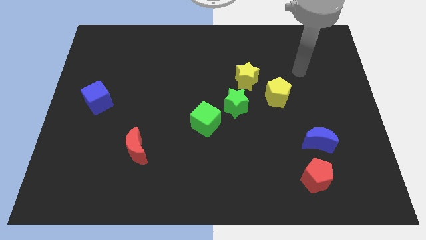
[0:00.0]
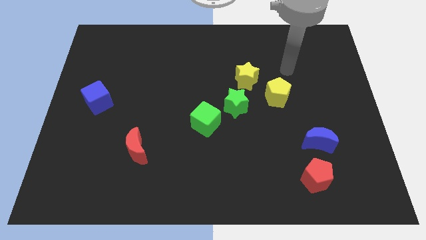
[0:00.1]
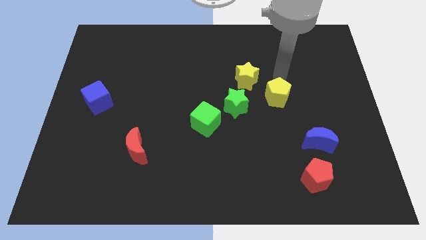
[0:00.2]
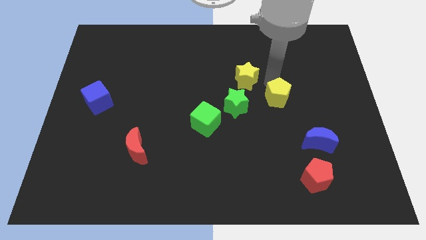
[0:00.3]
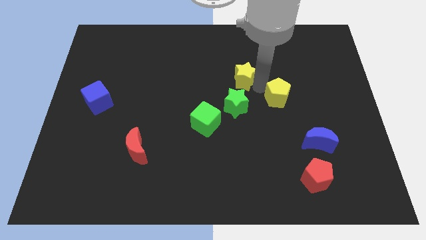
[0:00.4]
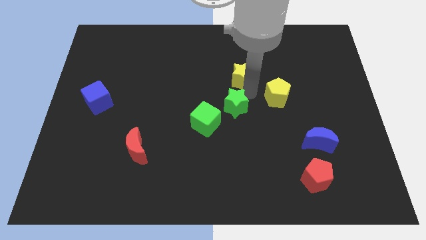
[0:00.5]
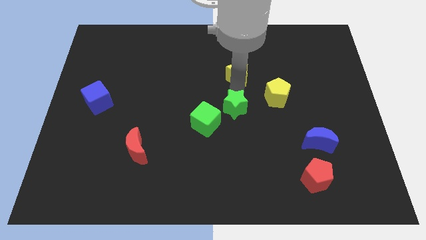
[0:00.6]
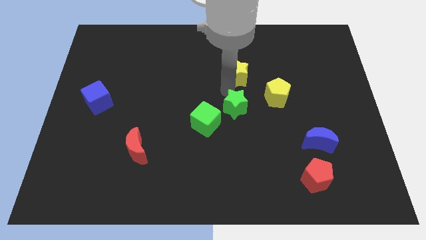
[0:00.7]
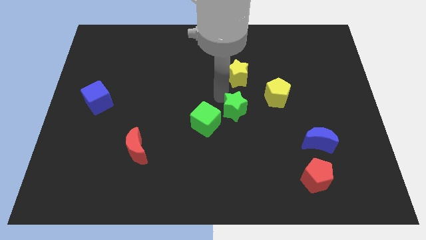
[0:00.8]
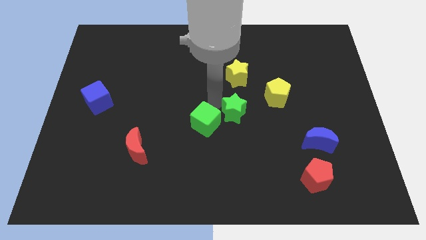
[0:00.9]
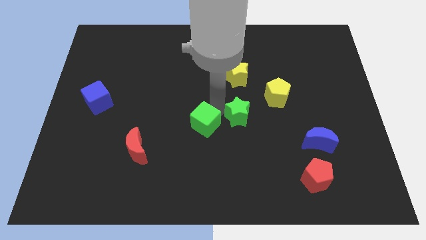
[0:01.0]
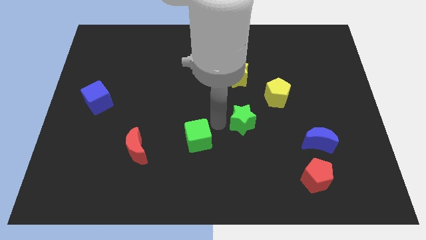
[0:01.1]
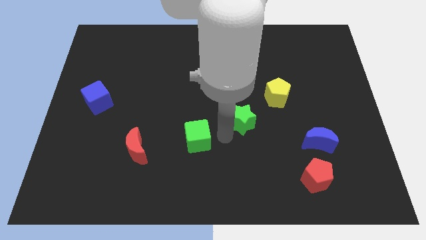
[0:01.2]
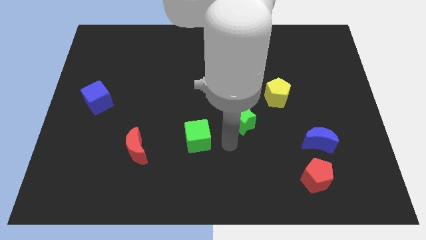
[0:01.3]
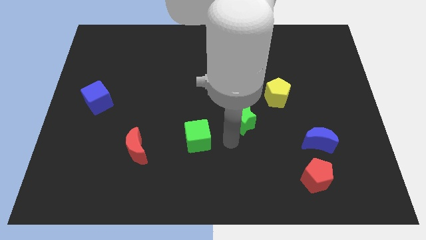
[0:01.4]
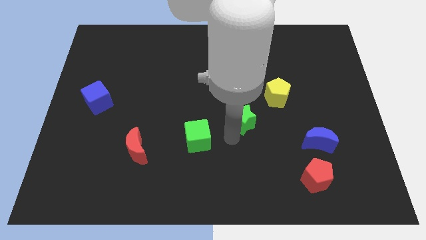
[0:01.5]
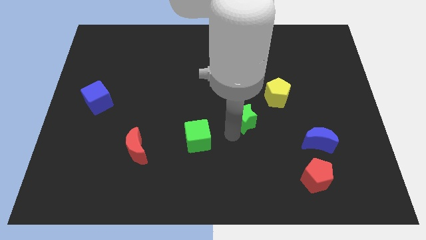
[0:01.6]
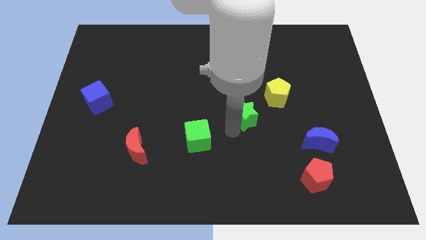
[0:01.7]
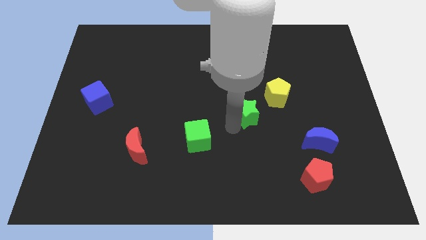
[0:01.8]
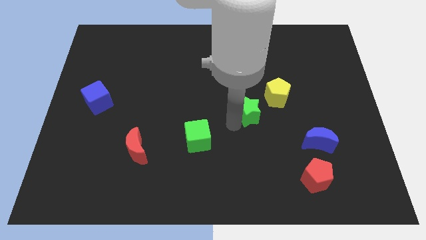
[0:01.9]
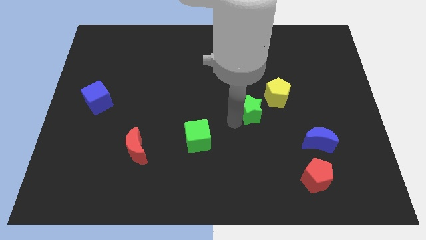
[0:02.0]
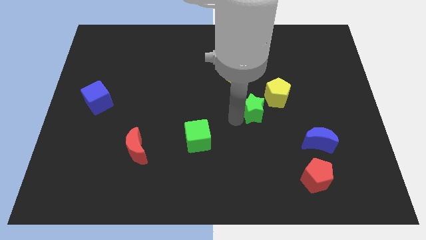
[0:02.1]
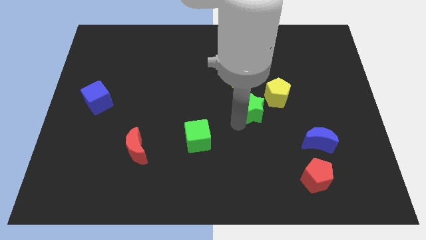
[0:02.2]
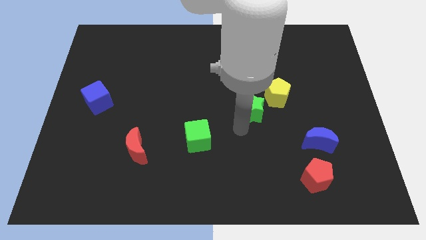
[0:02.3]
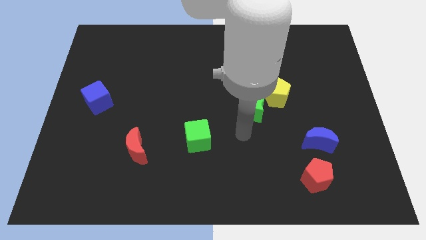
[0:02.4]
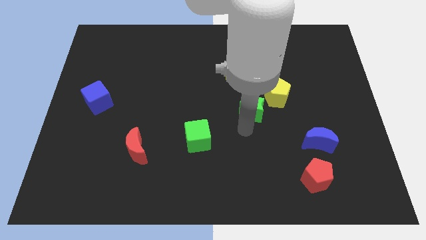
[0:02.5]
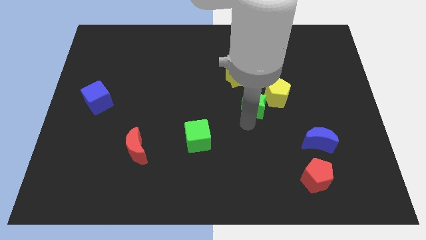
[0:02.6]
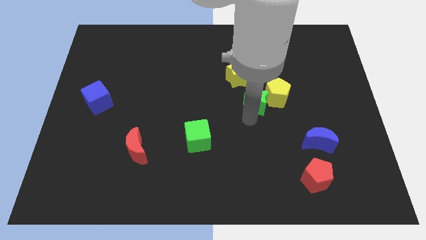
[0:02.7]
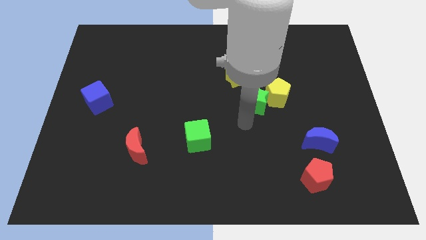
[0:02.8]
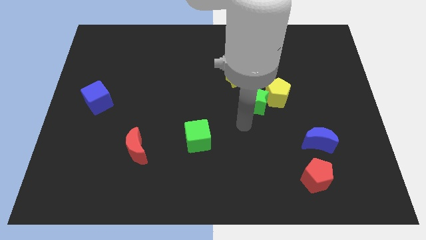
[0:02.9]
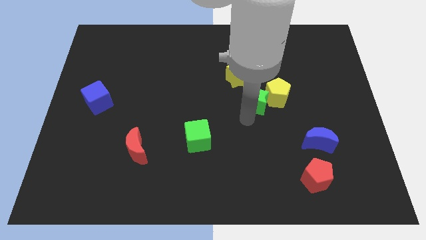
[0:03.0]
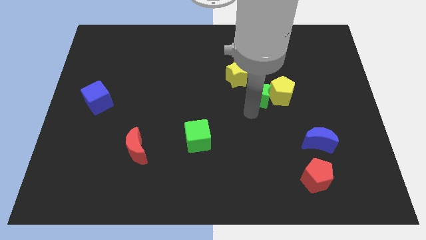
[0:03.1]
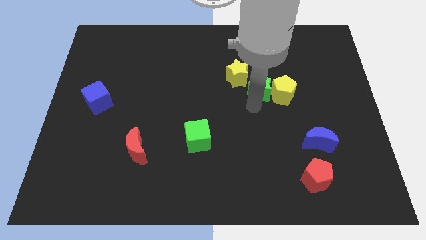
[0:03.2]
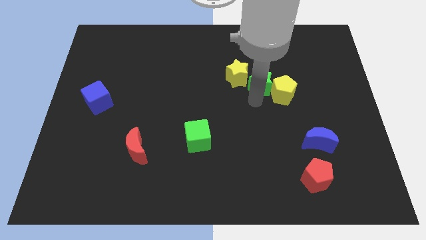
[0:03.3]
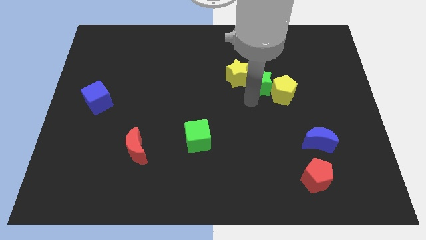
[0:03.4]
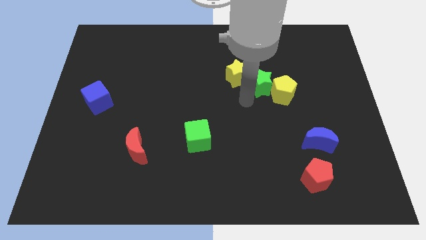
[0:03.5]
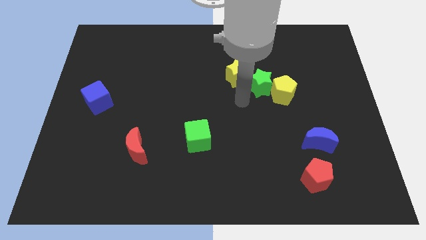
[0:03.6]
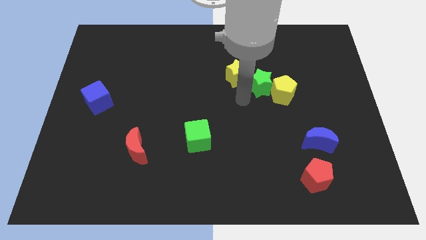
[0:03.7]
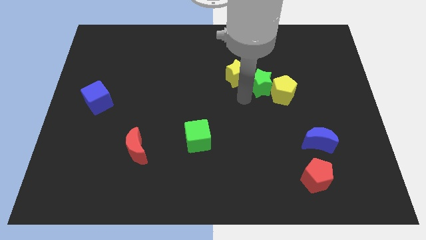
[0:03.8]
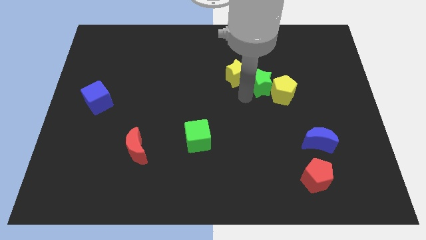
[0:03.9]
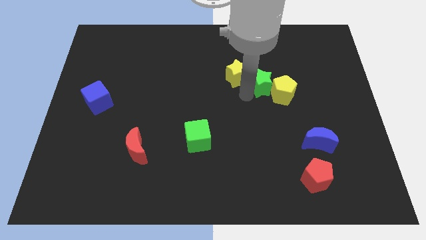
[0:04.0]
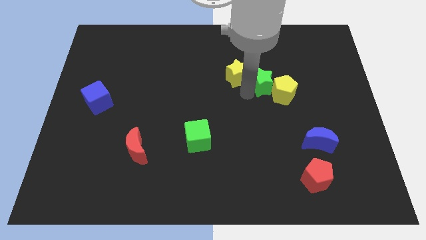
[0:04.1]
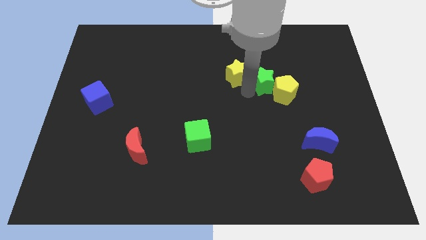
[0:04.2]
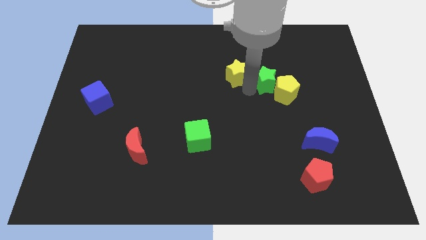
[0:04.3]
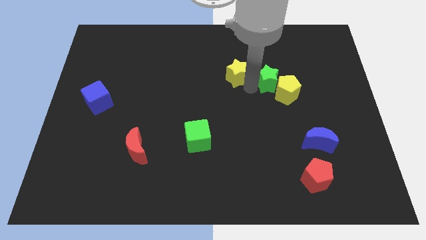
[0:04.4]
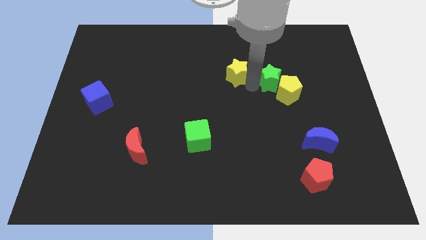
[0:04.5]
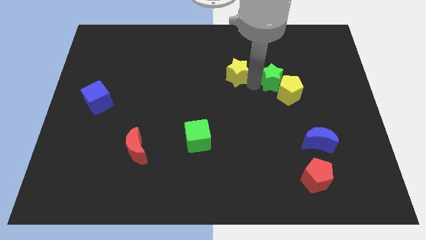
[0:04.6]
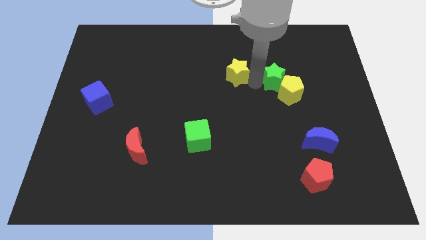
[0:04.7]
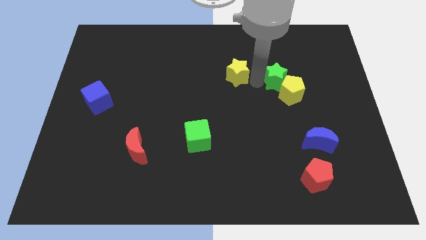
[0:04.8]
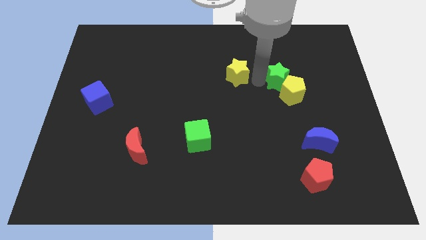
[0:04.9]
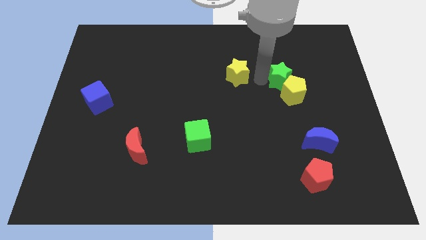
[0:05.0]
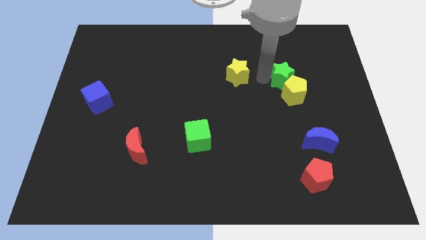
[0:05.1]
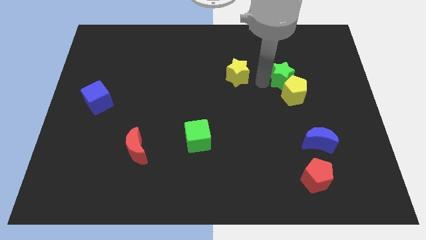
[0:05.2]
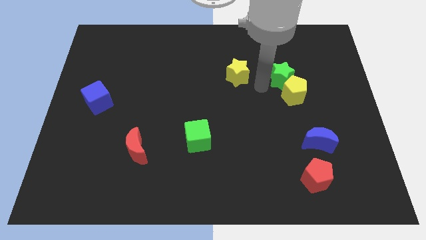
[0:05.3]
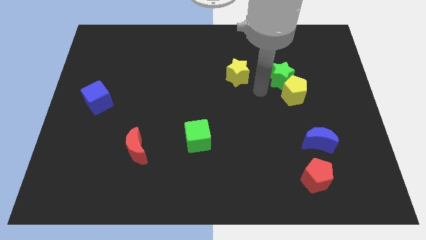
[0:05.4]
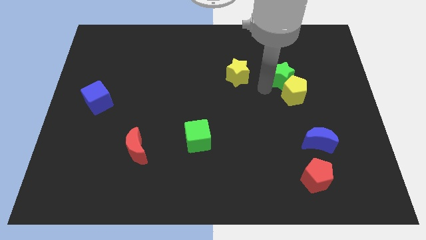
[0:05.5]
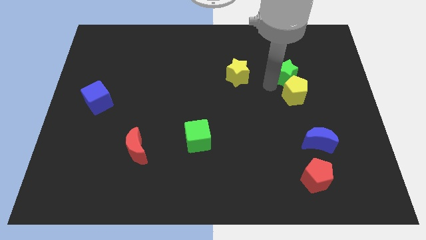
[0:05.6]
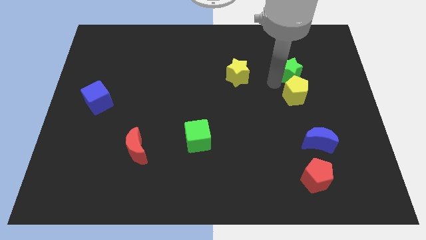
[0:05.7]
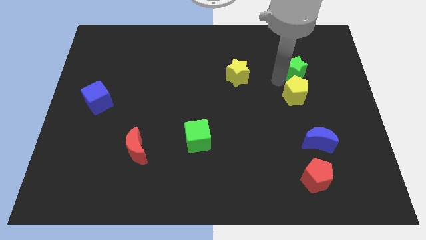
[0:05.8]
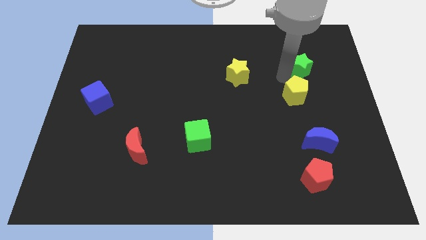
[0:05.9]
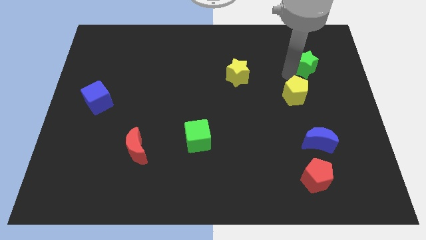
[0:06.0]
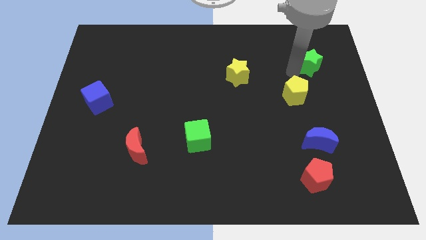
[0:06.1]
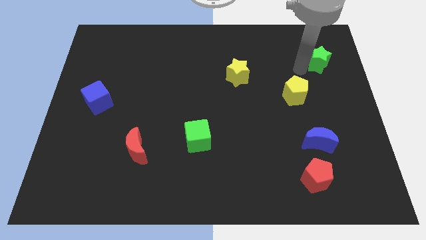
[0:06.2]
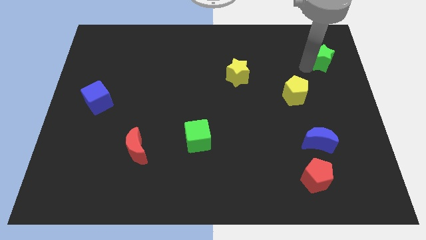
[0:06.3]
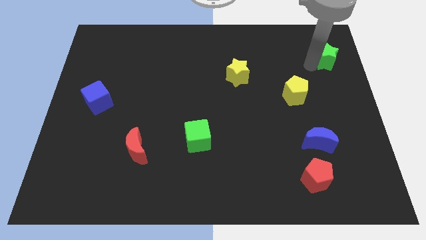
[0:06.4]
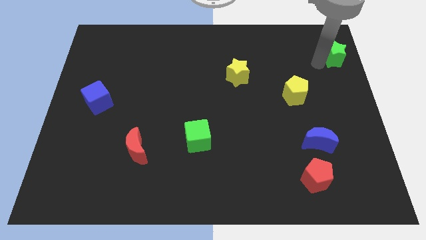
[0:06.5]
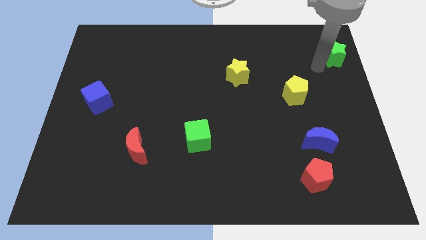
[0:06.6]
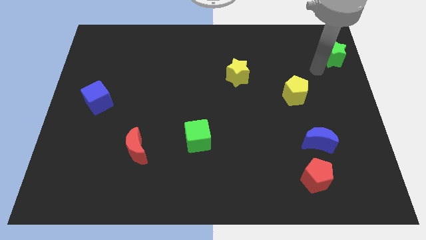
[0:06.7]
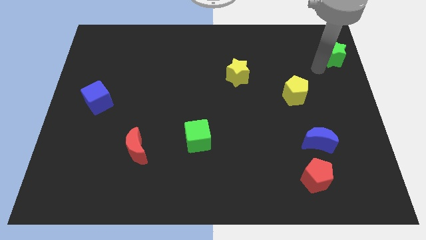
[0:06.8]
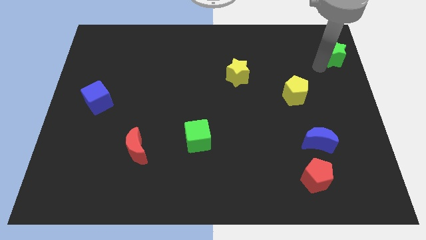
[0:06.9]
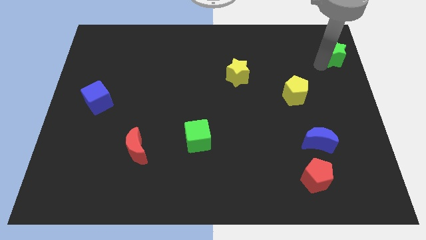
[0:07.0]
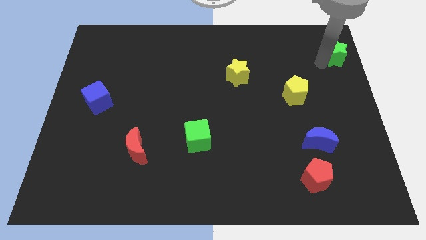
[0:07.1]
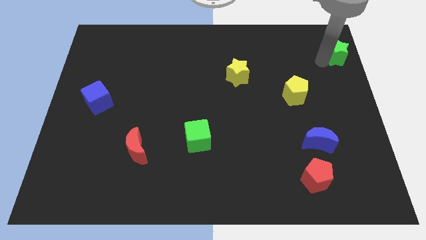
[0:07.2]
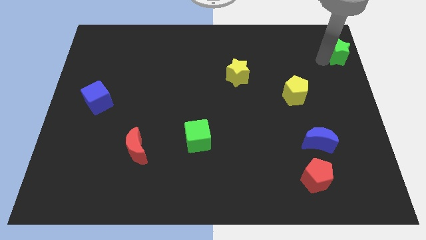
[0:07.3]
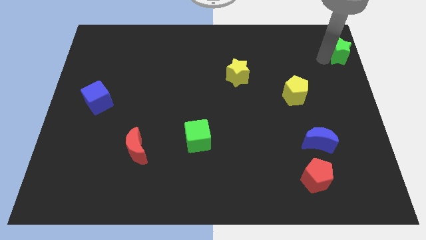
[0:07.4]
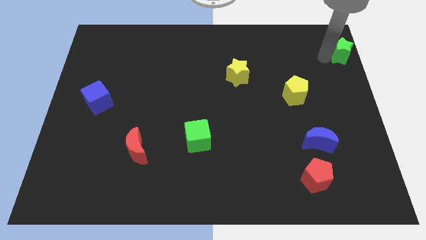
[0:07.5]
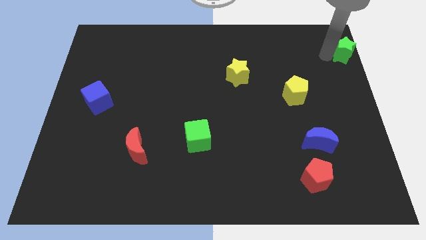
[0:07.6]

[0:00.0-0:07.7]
push the green star to the top right
